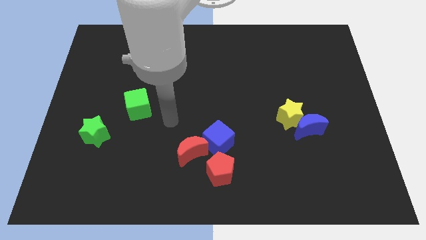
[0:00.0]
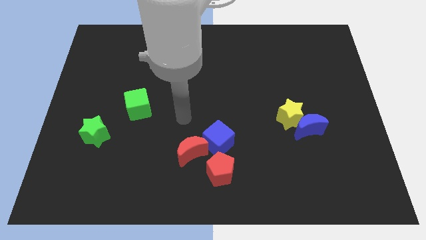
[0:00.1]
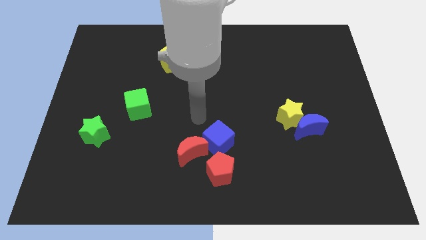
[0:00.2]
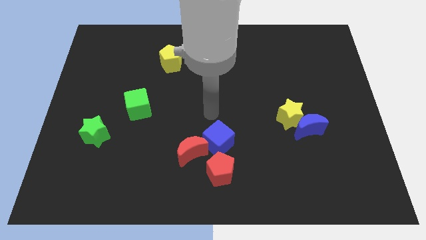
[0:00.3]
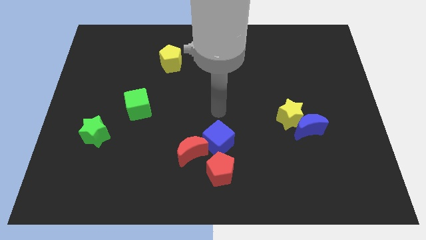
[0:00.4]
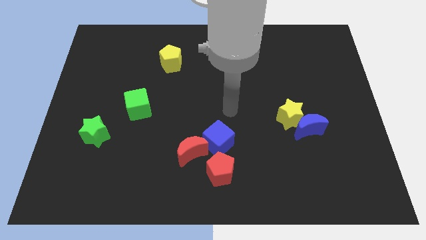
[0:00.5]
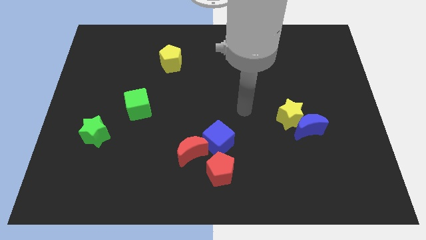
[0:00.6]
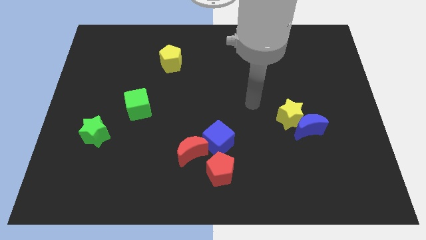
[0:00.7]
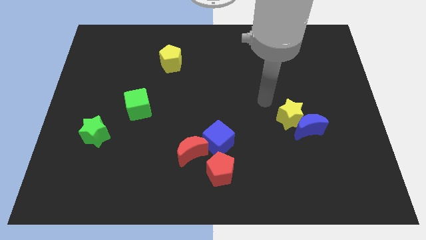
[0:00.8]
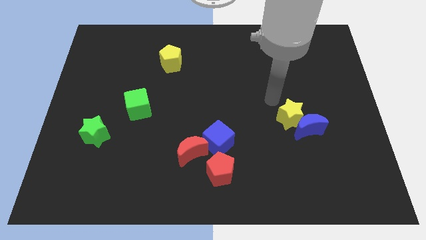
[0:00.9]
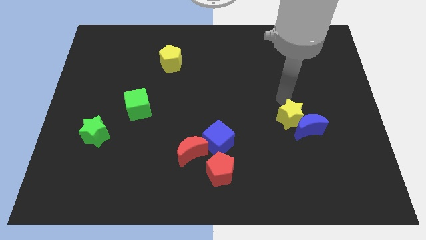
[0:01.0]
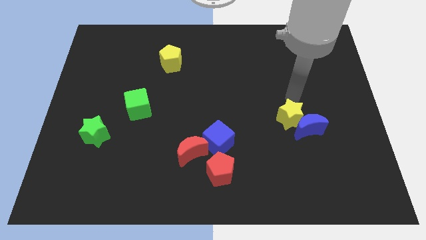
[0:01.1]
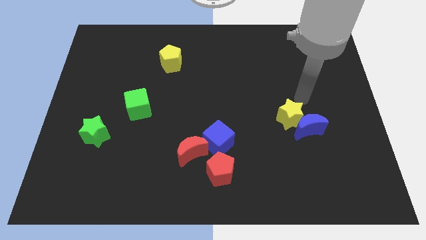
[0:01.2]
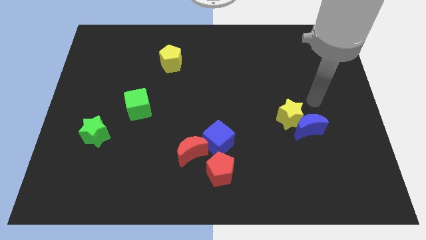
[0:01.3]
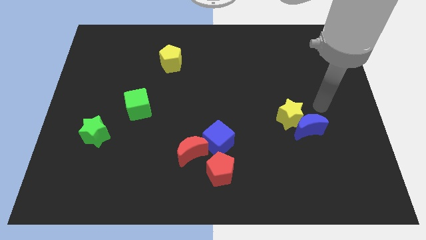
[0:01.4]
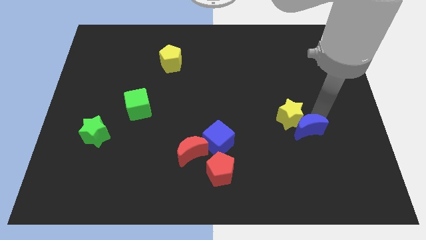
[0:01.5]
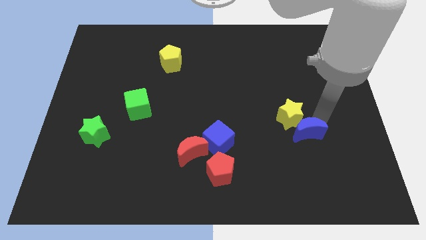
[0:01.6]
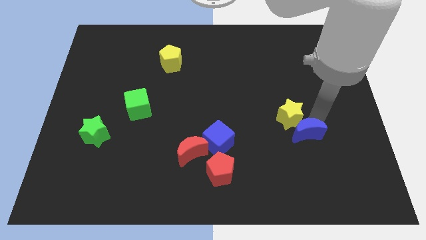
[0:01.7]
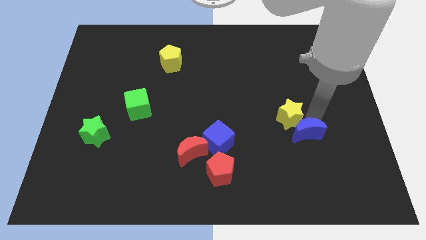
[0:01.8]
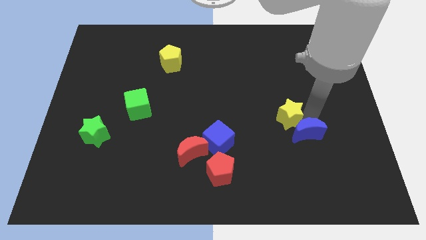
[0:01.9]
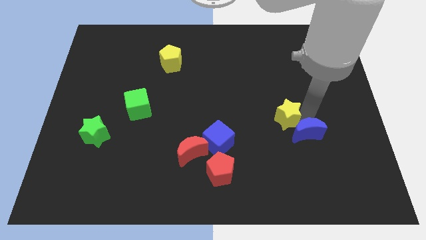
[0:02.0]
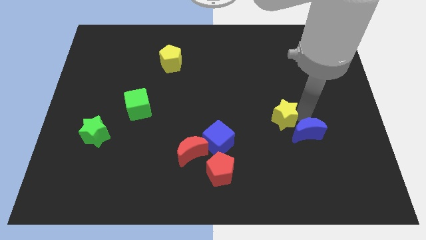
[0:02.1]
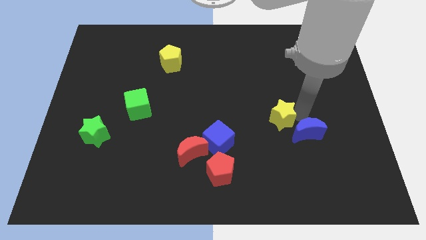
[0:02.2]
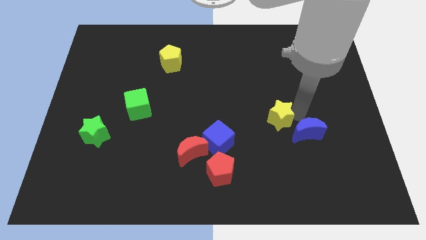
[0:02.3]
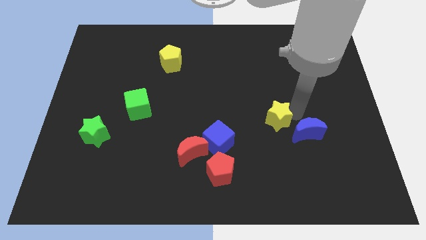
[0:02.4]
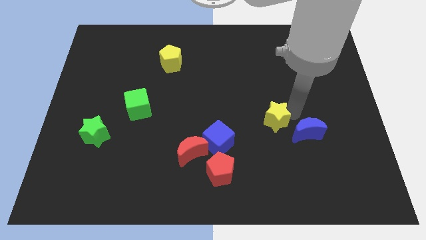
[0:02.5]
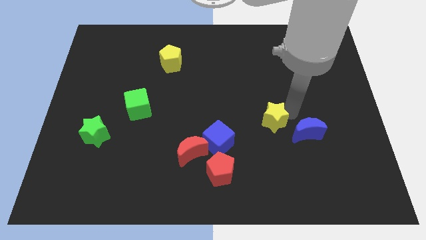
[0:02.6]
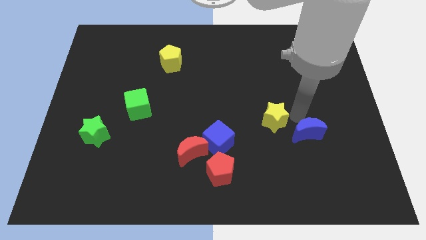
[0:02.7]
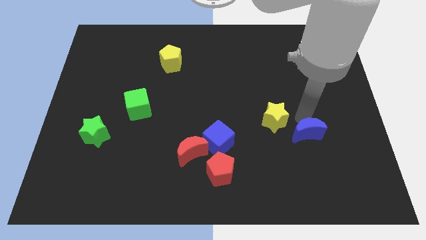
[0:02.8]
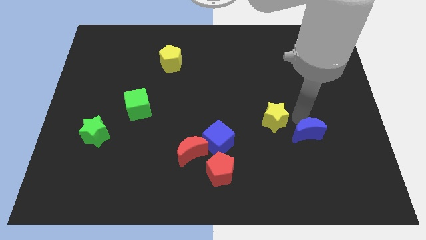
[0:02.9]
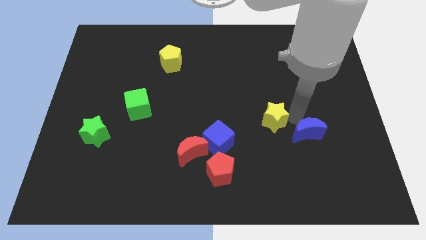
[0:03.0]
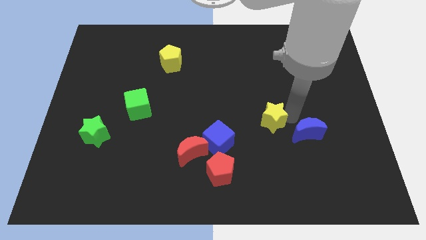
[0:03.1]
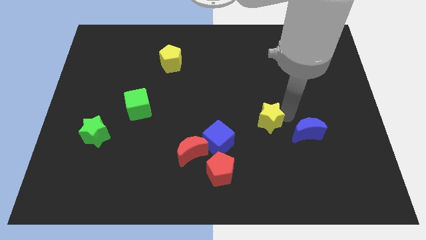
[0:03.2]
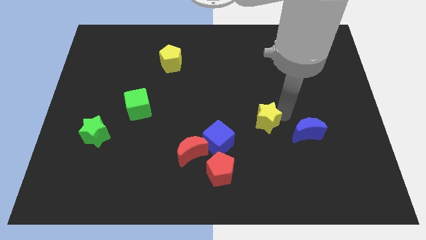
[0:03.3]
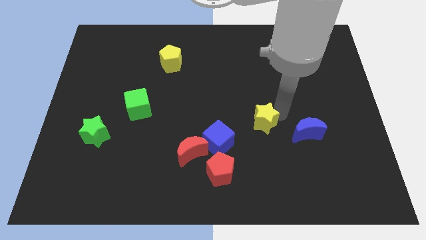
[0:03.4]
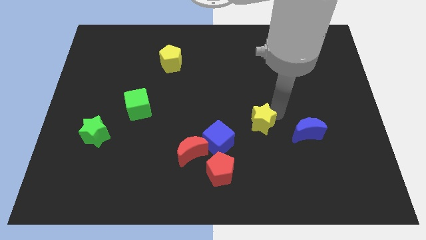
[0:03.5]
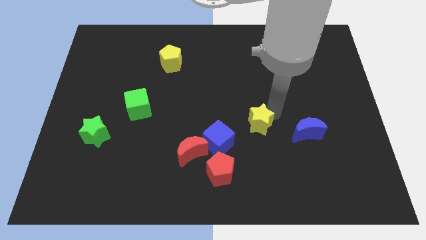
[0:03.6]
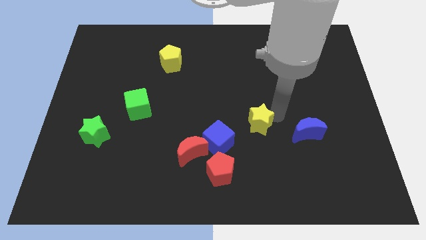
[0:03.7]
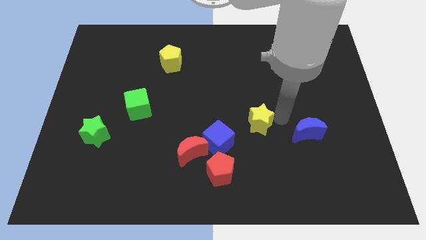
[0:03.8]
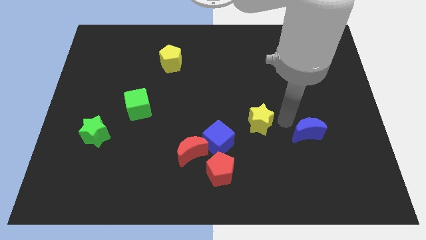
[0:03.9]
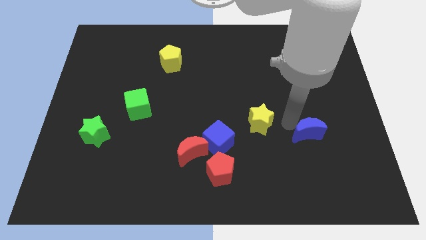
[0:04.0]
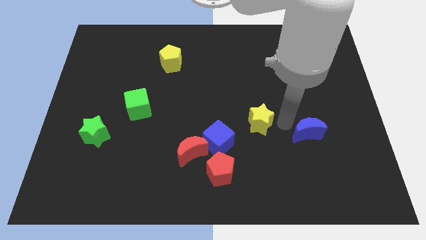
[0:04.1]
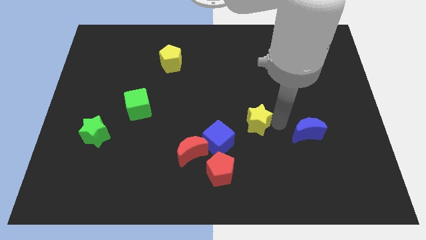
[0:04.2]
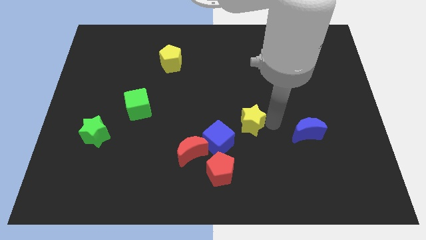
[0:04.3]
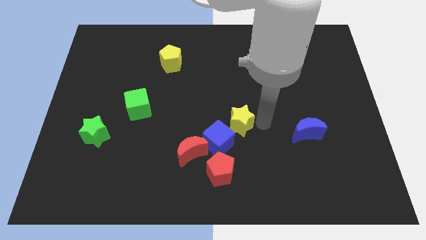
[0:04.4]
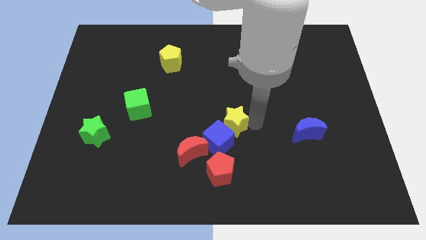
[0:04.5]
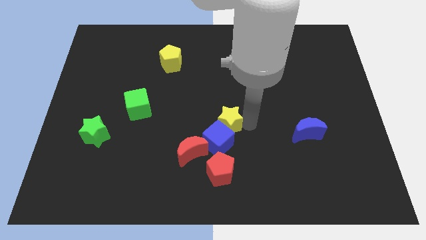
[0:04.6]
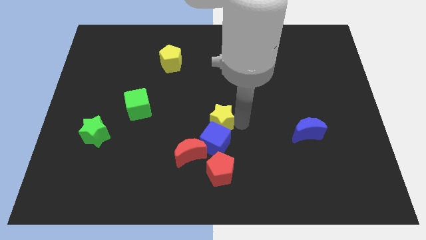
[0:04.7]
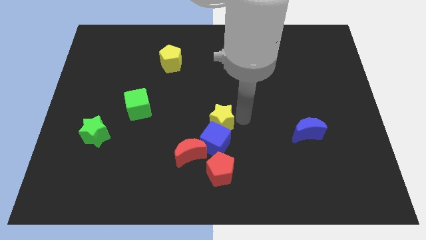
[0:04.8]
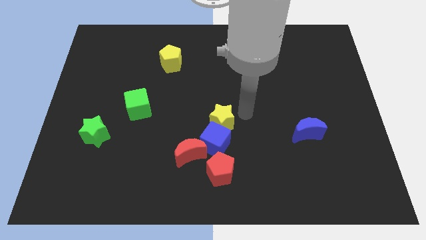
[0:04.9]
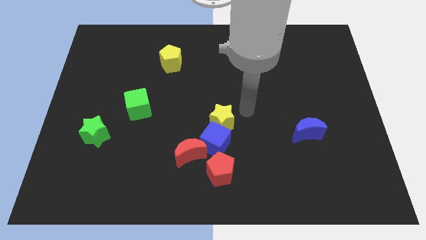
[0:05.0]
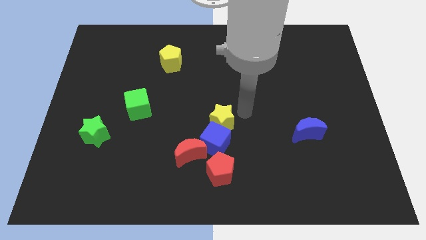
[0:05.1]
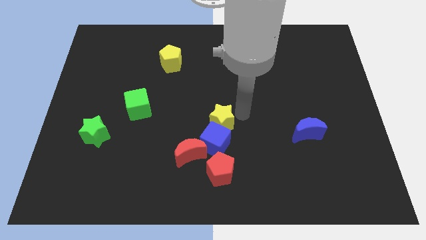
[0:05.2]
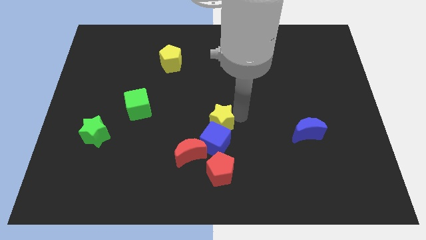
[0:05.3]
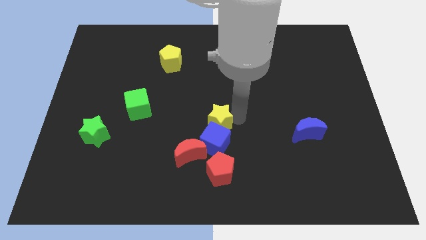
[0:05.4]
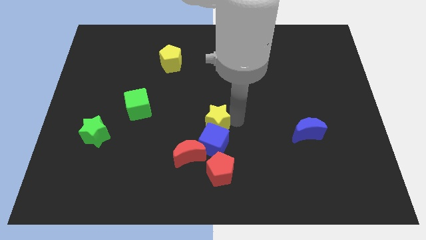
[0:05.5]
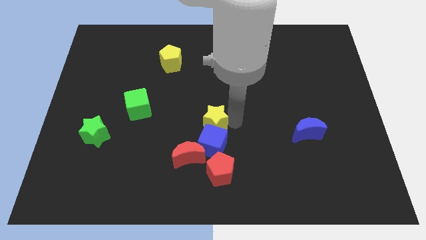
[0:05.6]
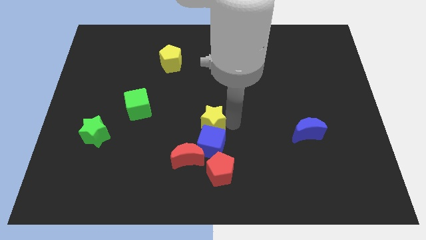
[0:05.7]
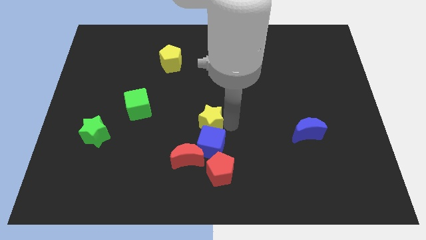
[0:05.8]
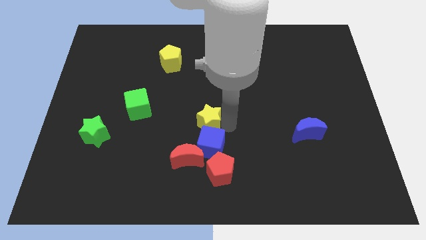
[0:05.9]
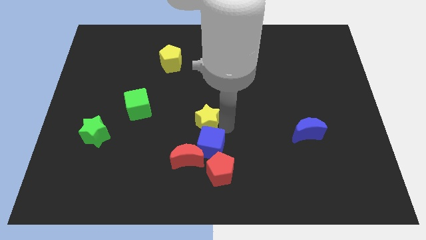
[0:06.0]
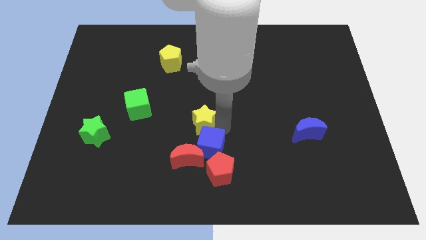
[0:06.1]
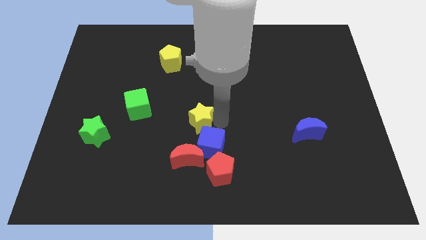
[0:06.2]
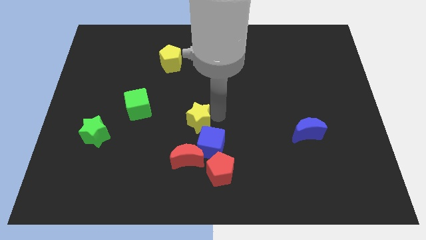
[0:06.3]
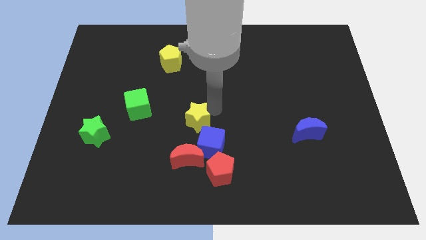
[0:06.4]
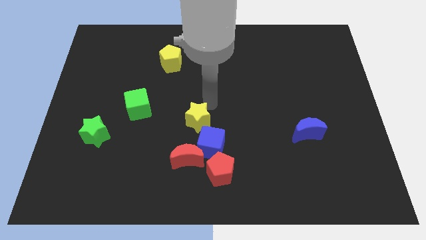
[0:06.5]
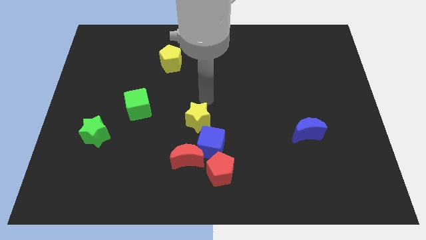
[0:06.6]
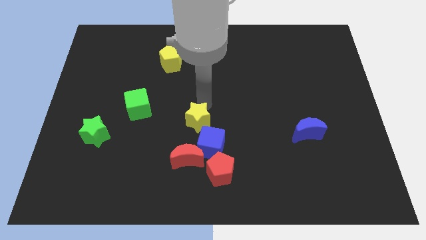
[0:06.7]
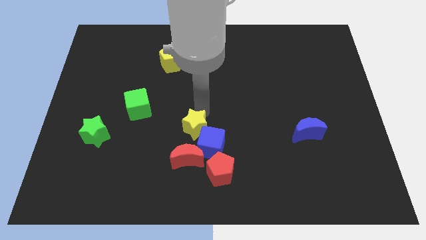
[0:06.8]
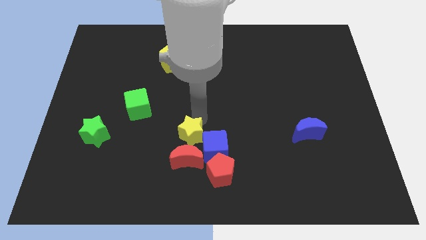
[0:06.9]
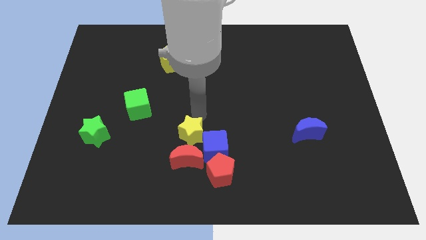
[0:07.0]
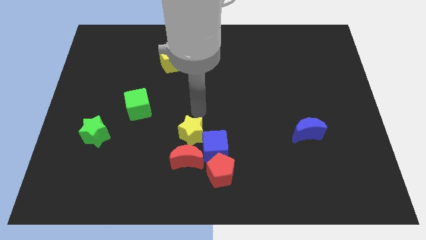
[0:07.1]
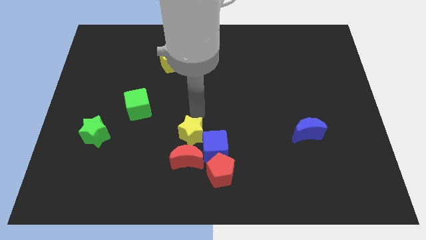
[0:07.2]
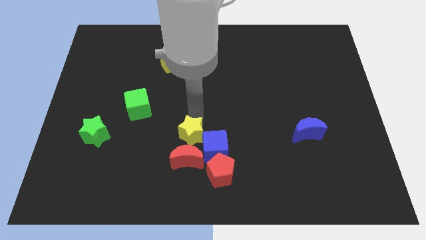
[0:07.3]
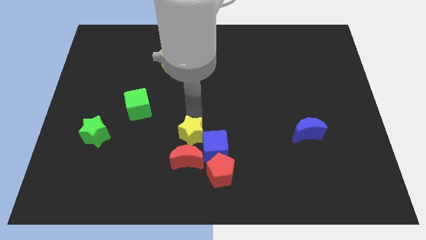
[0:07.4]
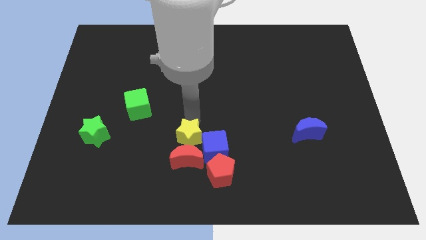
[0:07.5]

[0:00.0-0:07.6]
slide the yellow star next to the red moon
